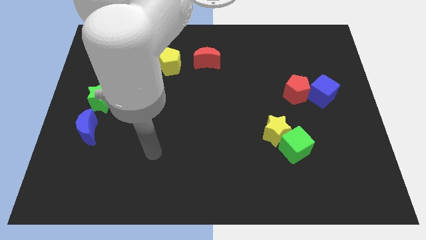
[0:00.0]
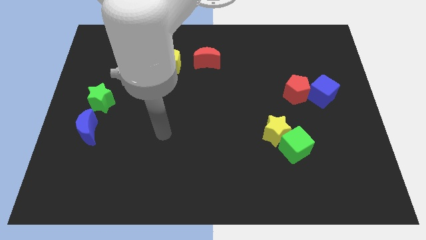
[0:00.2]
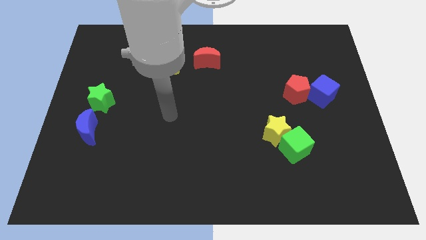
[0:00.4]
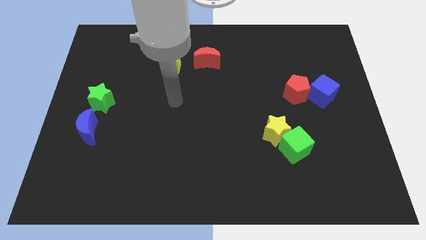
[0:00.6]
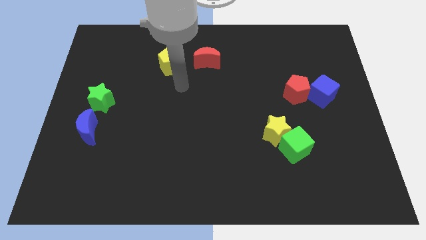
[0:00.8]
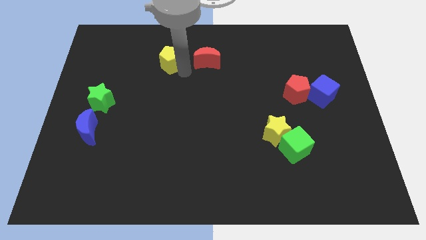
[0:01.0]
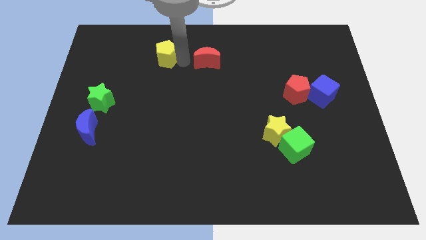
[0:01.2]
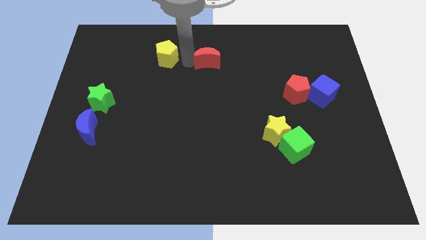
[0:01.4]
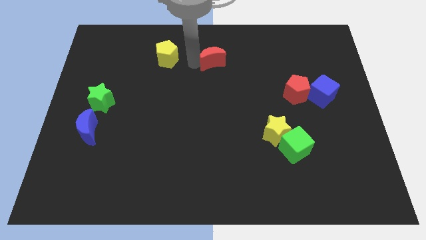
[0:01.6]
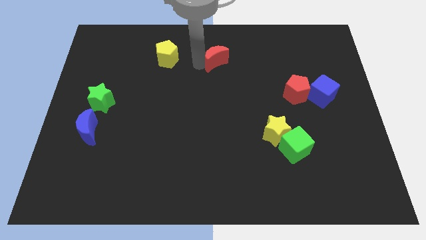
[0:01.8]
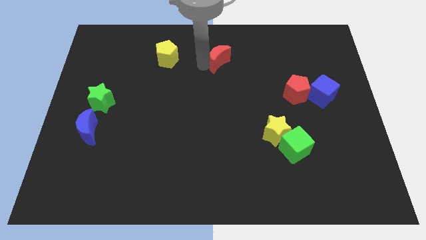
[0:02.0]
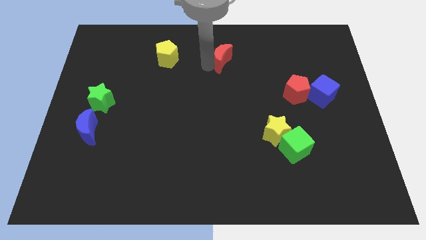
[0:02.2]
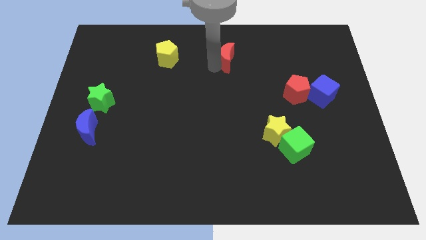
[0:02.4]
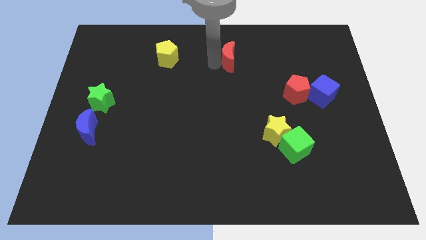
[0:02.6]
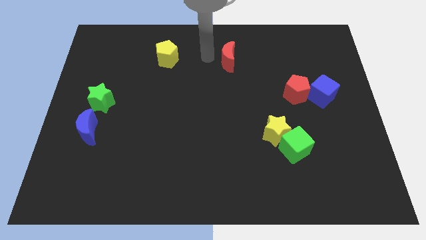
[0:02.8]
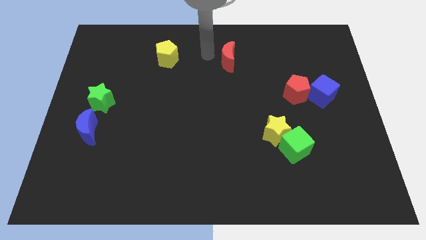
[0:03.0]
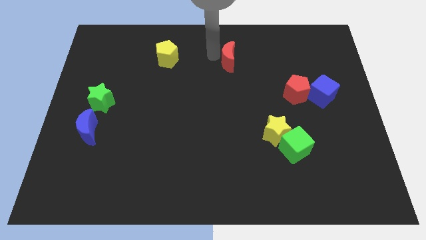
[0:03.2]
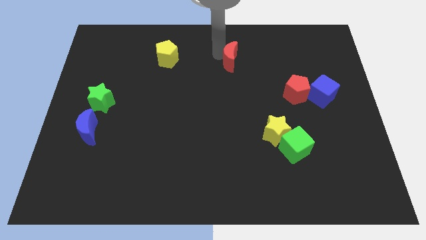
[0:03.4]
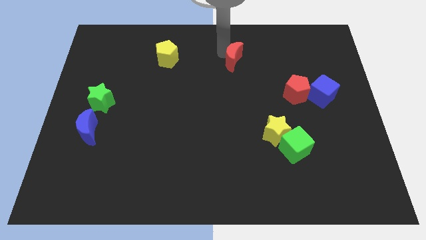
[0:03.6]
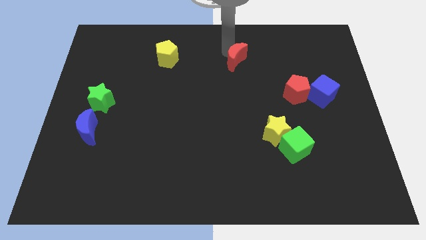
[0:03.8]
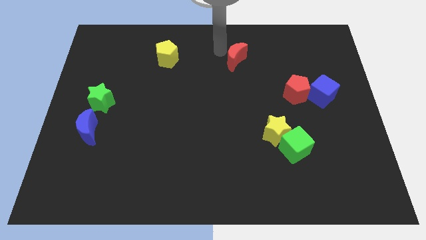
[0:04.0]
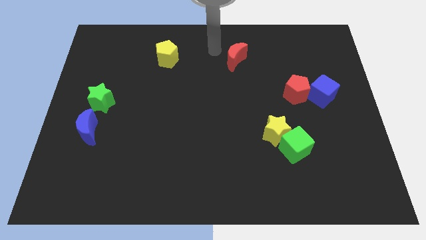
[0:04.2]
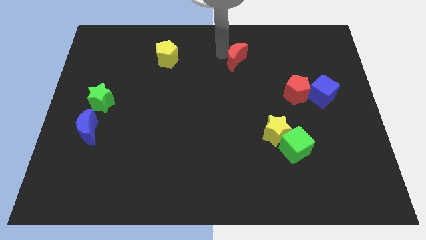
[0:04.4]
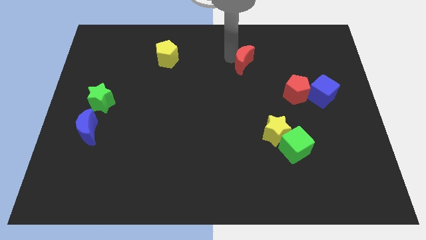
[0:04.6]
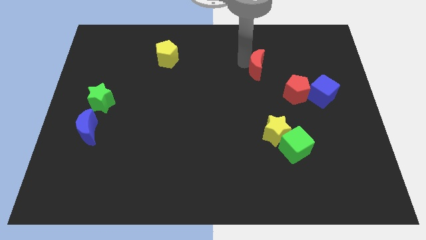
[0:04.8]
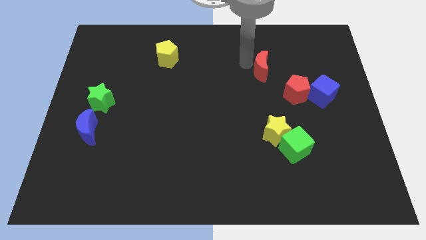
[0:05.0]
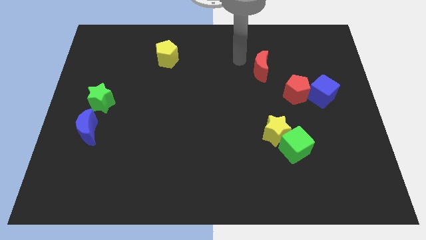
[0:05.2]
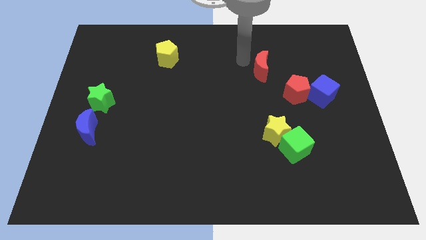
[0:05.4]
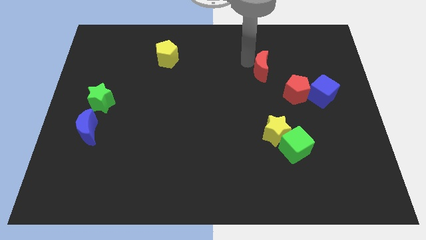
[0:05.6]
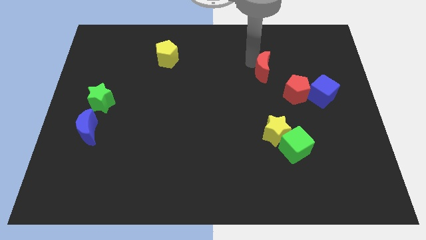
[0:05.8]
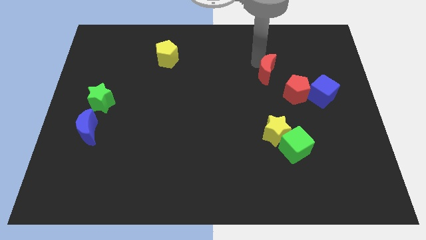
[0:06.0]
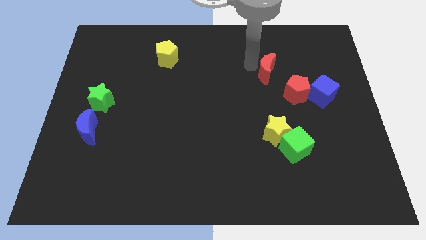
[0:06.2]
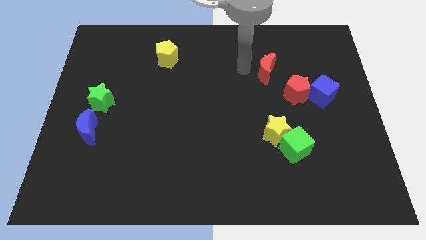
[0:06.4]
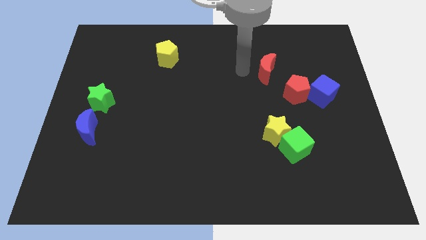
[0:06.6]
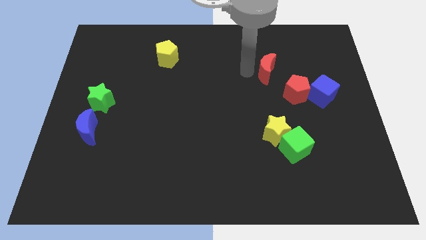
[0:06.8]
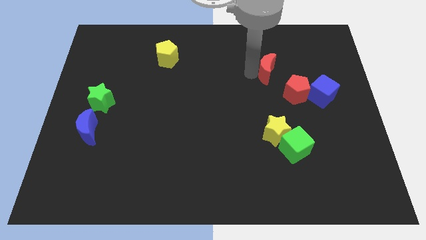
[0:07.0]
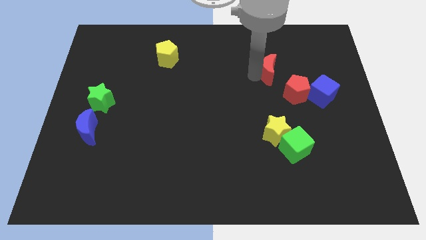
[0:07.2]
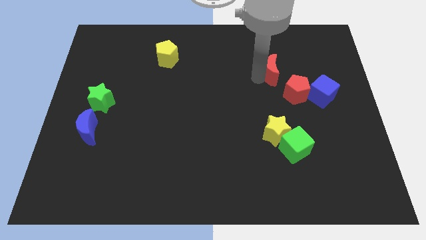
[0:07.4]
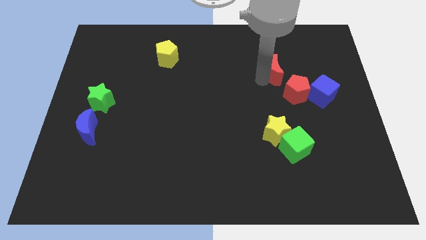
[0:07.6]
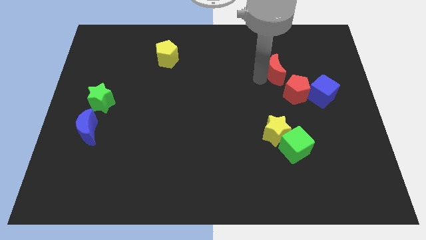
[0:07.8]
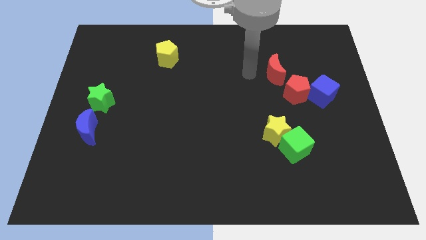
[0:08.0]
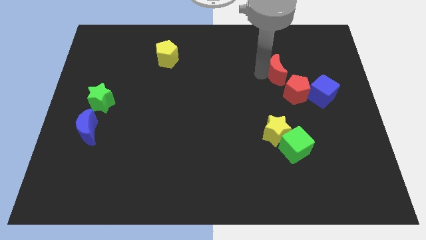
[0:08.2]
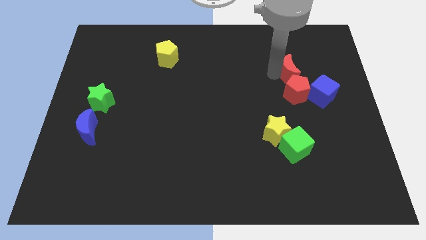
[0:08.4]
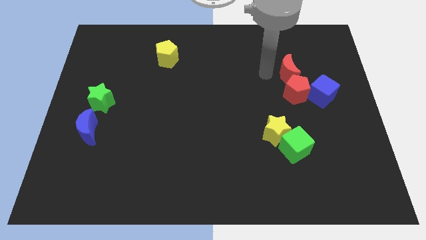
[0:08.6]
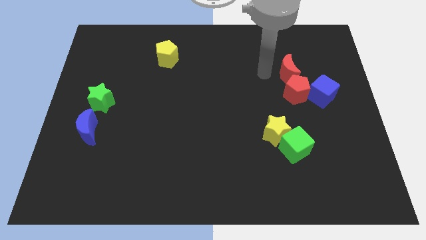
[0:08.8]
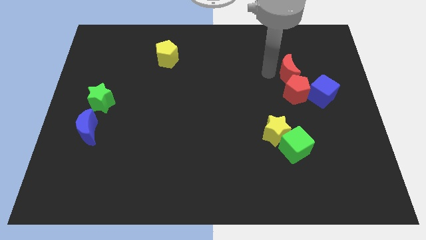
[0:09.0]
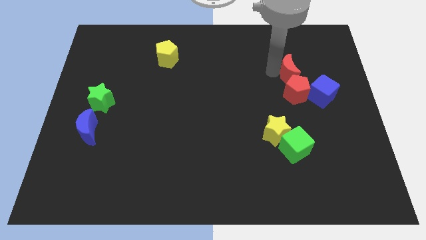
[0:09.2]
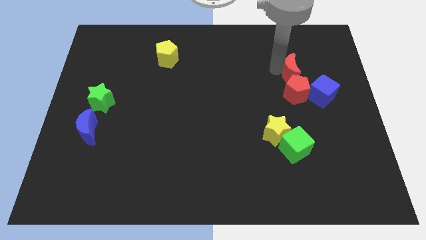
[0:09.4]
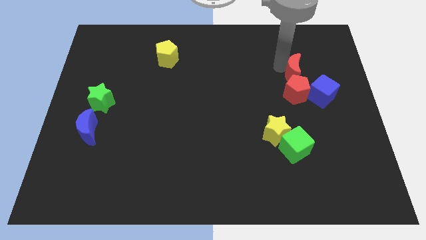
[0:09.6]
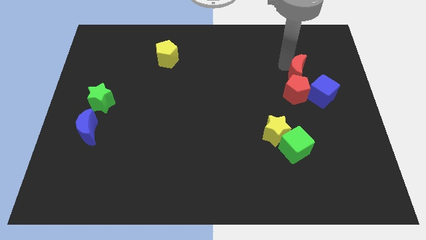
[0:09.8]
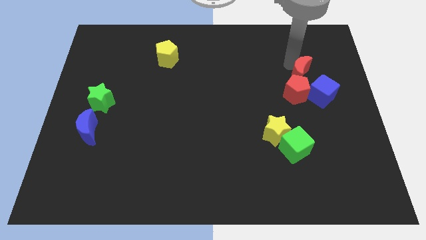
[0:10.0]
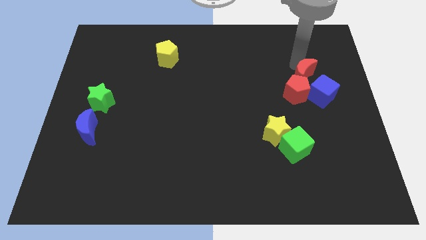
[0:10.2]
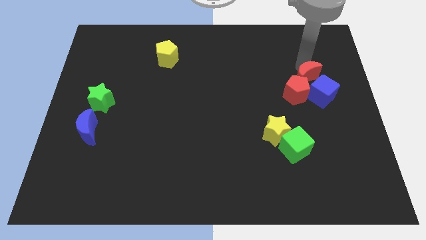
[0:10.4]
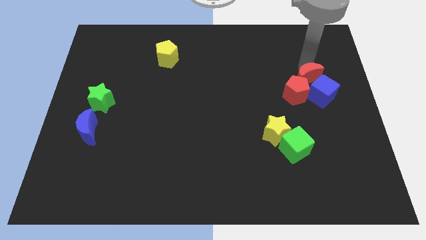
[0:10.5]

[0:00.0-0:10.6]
push the red moon to the blue cube

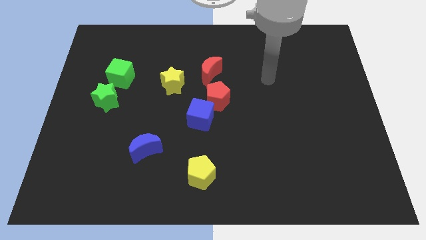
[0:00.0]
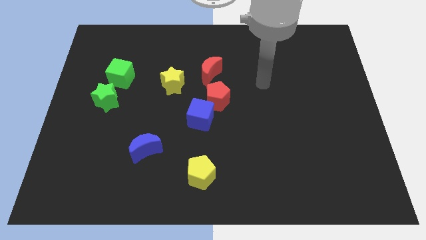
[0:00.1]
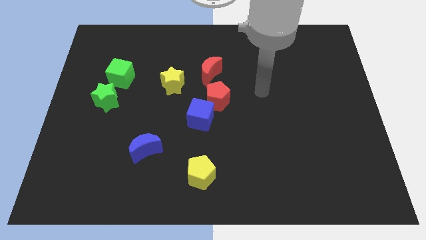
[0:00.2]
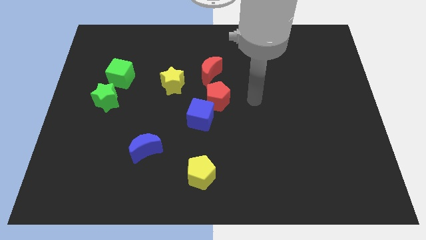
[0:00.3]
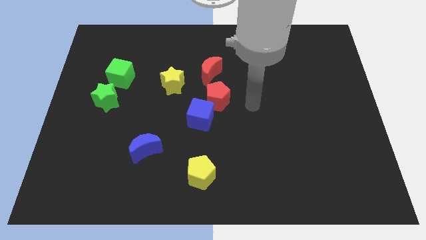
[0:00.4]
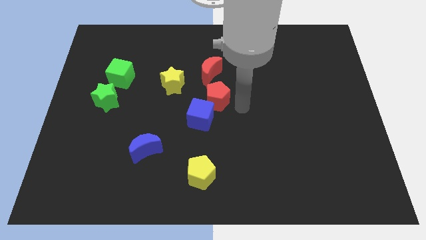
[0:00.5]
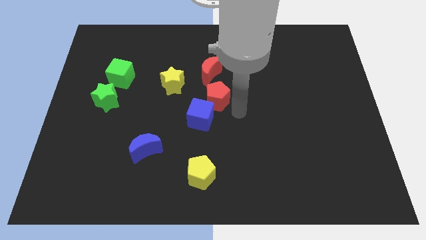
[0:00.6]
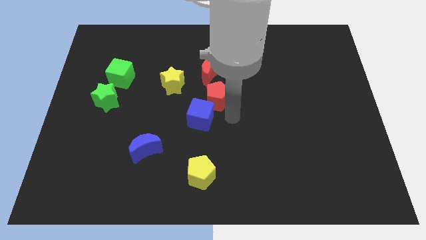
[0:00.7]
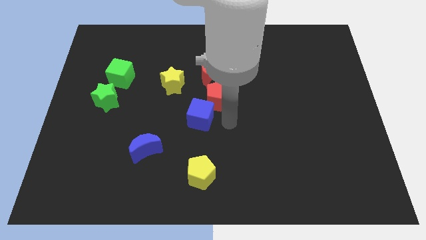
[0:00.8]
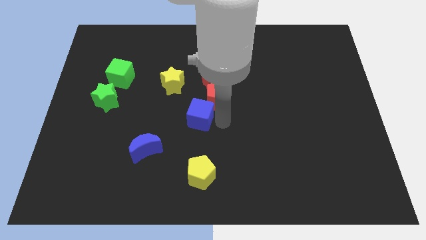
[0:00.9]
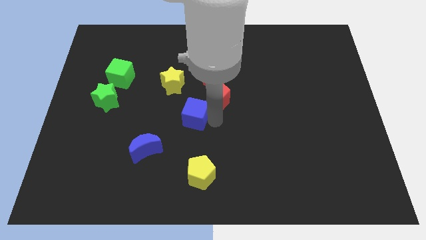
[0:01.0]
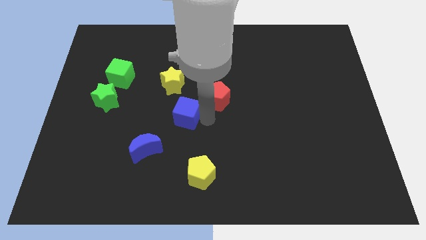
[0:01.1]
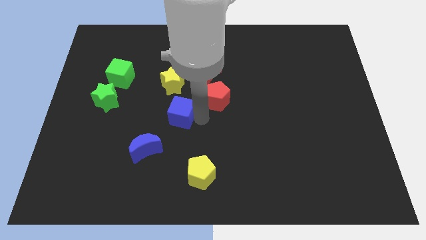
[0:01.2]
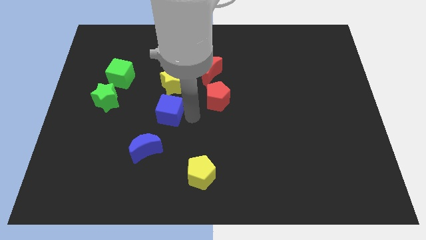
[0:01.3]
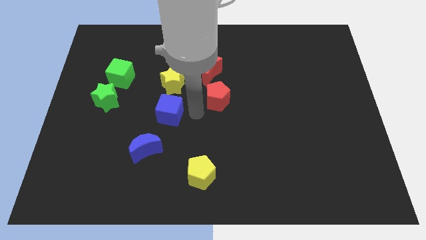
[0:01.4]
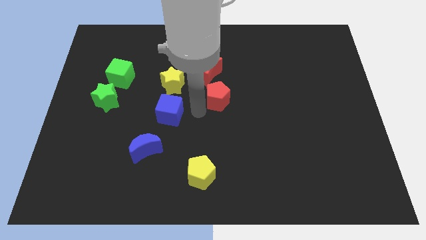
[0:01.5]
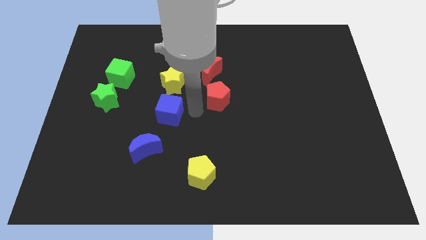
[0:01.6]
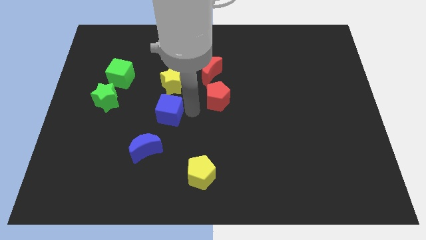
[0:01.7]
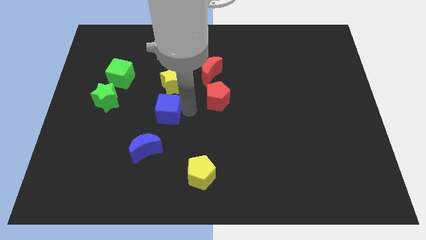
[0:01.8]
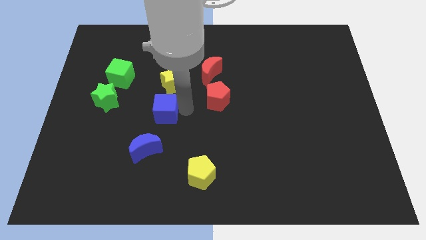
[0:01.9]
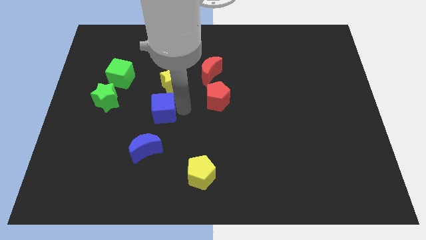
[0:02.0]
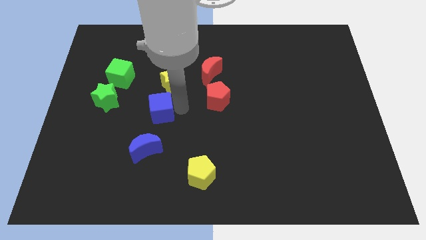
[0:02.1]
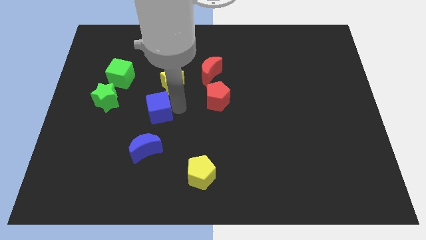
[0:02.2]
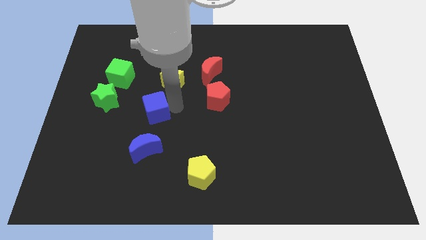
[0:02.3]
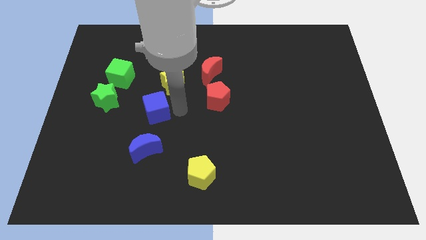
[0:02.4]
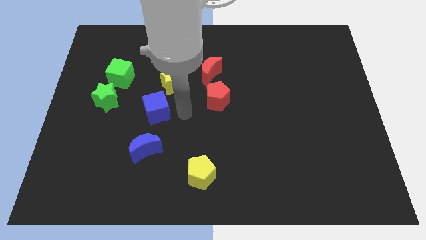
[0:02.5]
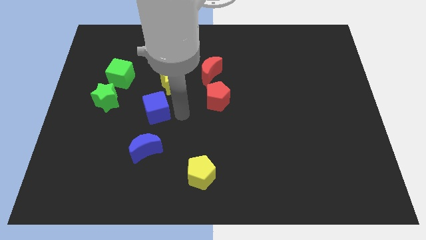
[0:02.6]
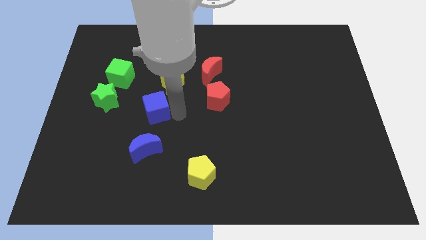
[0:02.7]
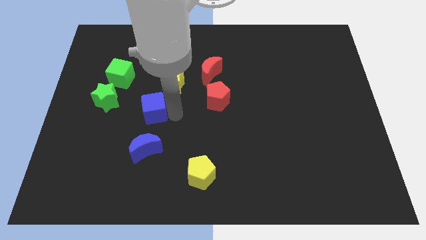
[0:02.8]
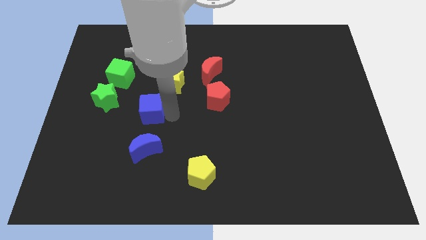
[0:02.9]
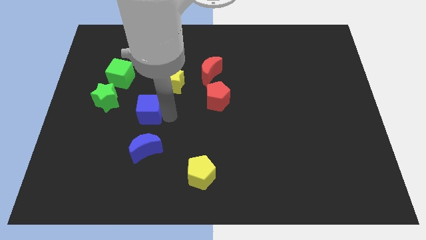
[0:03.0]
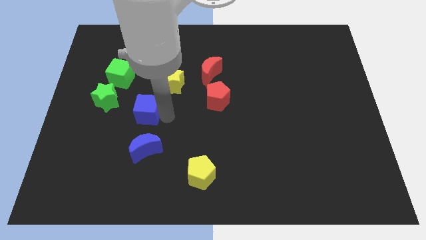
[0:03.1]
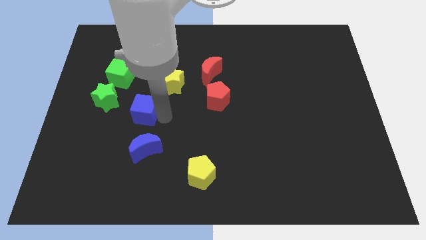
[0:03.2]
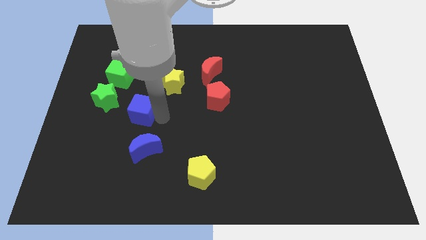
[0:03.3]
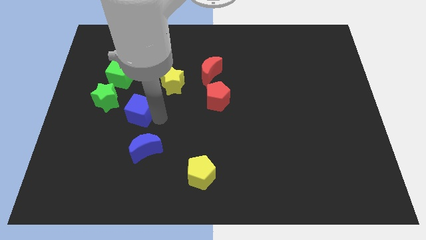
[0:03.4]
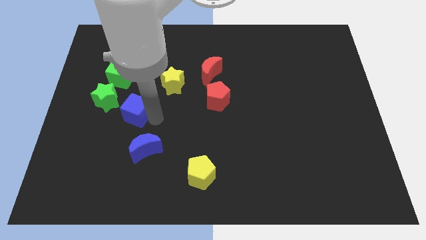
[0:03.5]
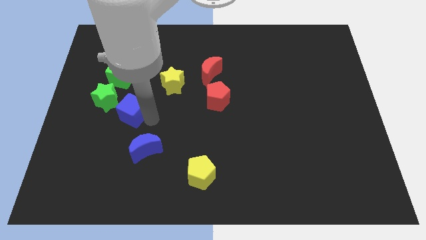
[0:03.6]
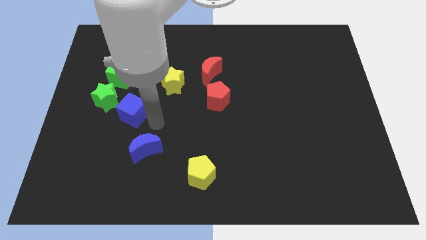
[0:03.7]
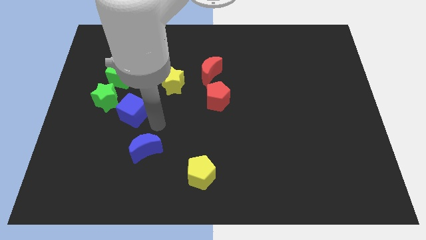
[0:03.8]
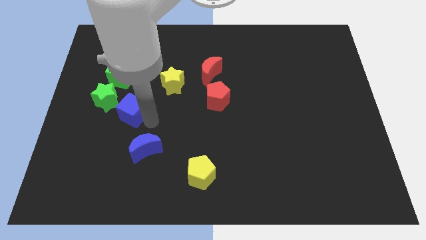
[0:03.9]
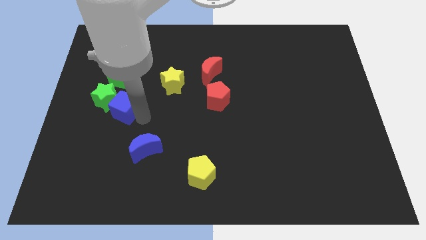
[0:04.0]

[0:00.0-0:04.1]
push the blue cube to the green star
